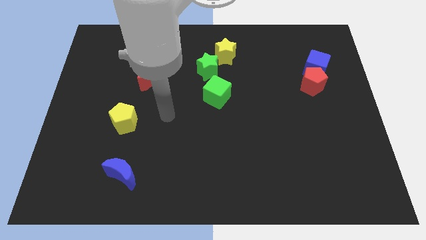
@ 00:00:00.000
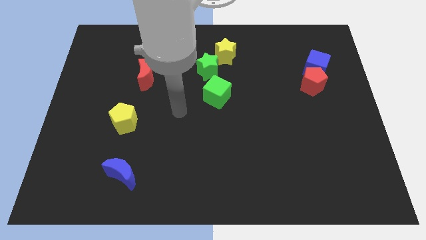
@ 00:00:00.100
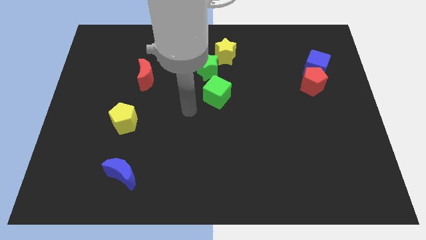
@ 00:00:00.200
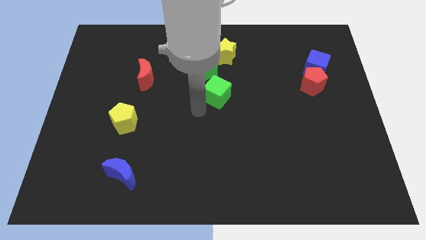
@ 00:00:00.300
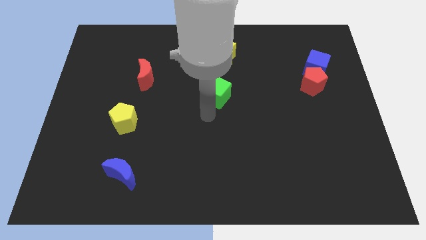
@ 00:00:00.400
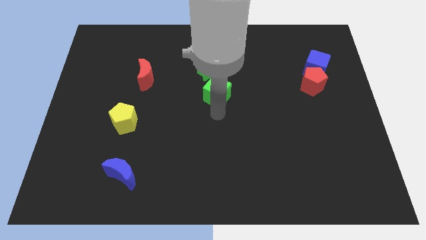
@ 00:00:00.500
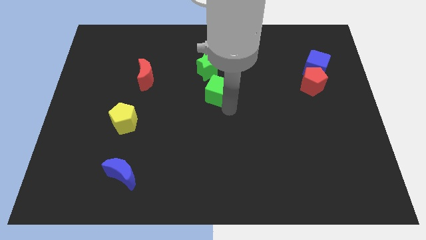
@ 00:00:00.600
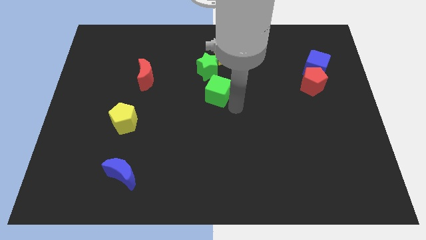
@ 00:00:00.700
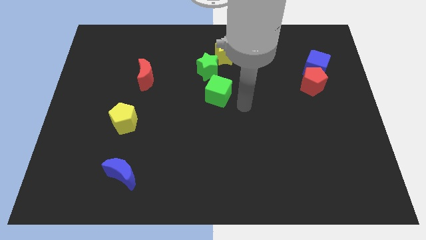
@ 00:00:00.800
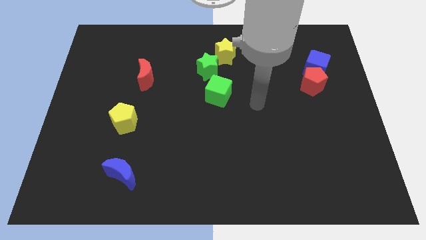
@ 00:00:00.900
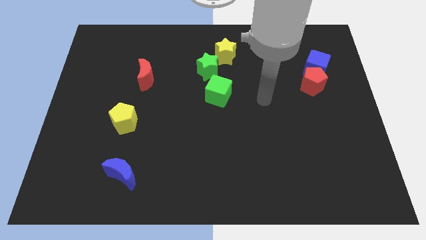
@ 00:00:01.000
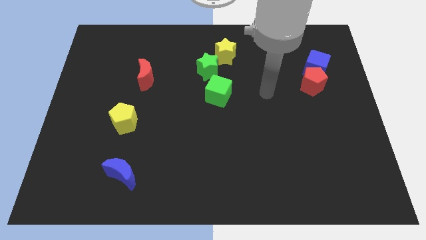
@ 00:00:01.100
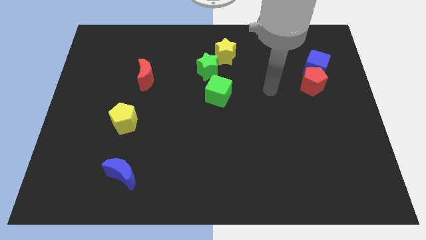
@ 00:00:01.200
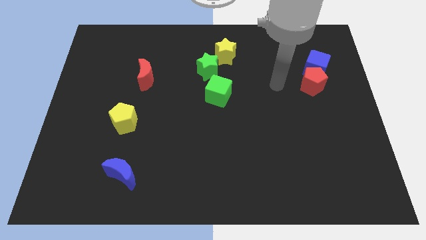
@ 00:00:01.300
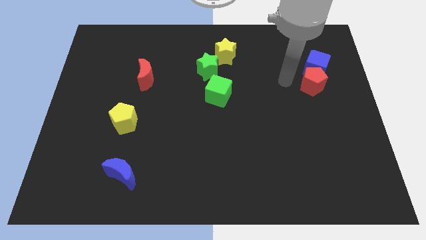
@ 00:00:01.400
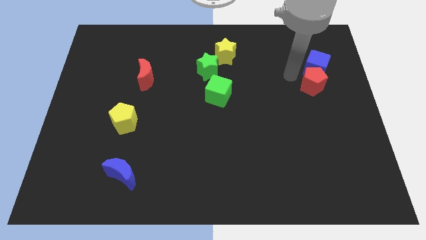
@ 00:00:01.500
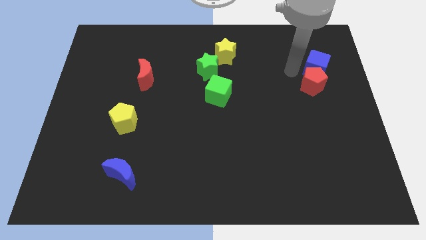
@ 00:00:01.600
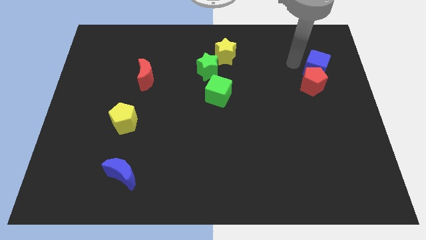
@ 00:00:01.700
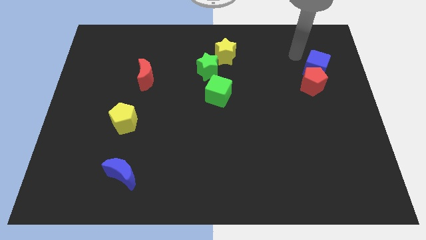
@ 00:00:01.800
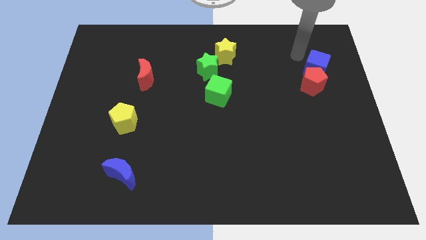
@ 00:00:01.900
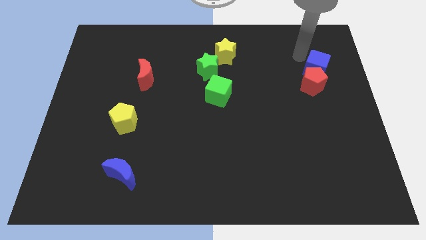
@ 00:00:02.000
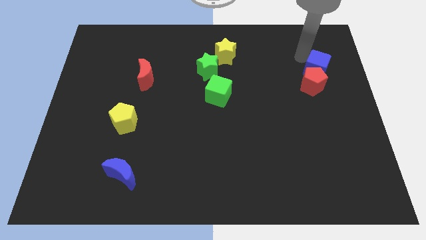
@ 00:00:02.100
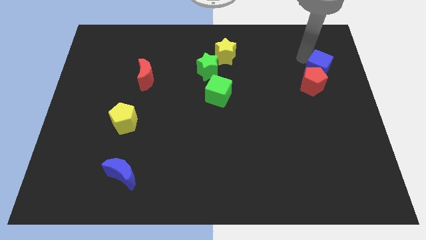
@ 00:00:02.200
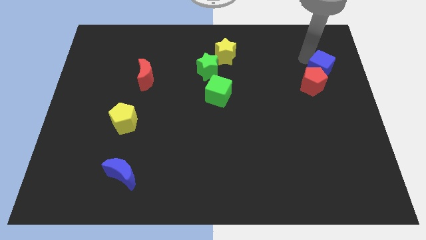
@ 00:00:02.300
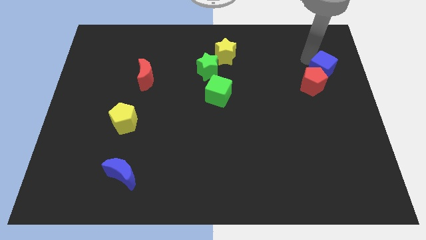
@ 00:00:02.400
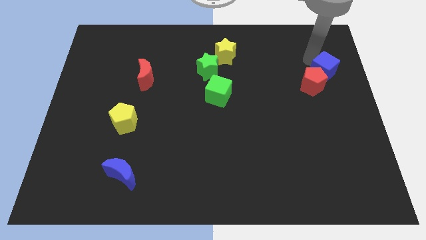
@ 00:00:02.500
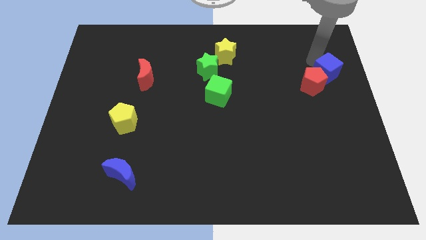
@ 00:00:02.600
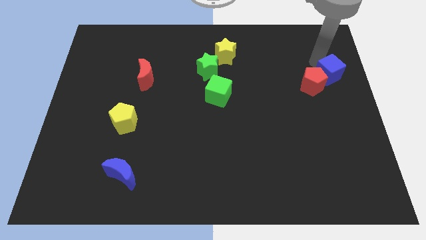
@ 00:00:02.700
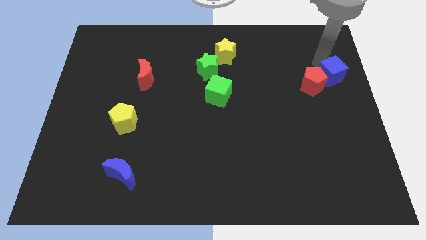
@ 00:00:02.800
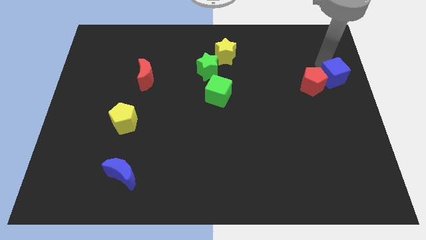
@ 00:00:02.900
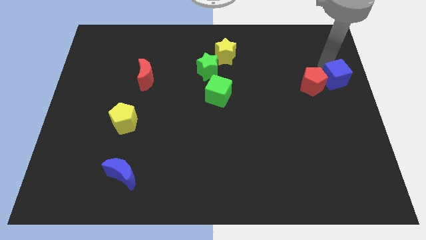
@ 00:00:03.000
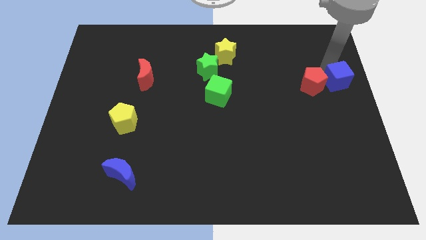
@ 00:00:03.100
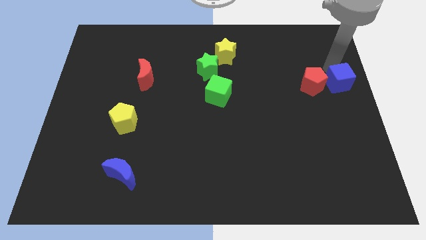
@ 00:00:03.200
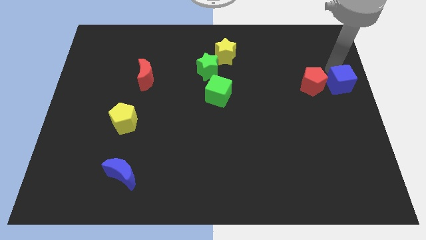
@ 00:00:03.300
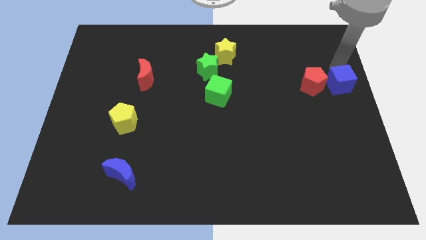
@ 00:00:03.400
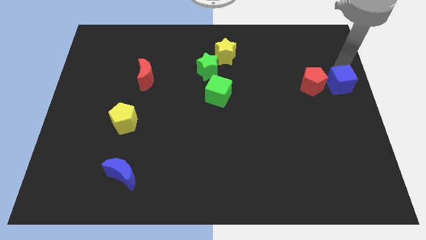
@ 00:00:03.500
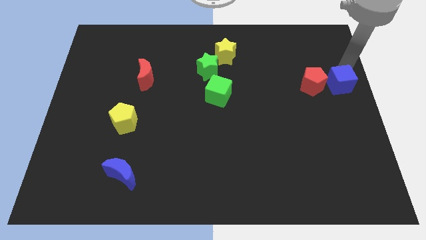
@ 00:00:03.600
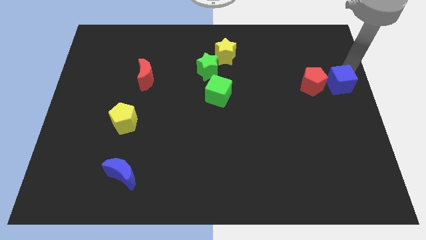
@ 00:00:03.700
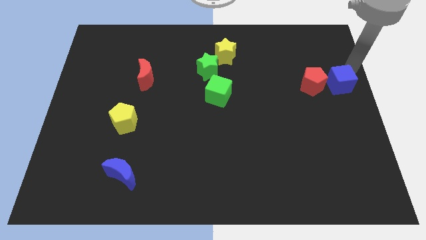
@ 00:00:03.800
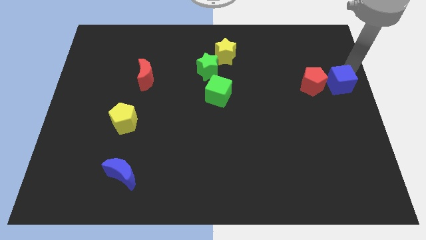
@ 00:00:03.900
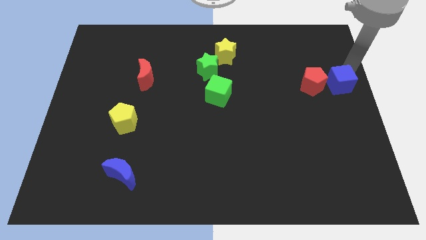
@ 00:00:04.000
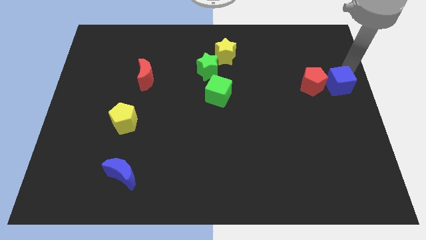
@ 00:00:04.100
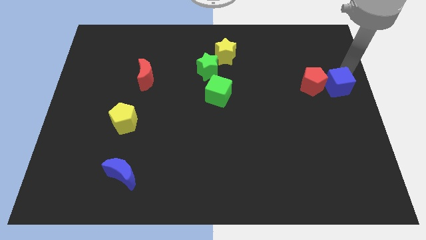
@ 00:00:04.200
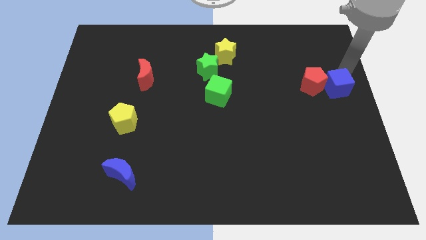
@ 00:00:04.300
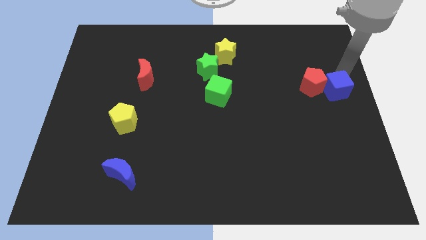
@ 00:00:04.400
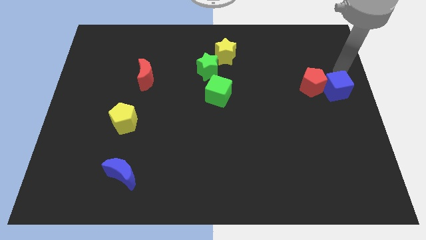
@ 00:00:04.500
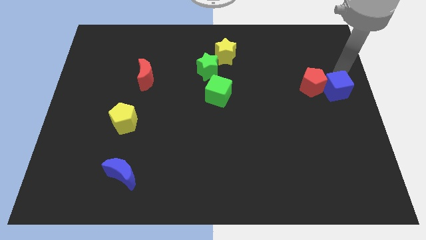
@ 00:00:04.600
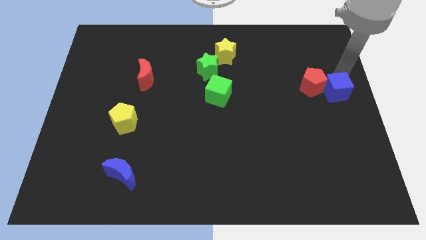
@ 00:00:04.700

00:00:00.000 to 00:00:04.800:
push the blue cube a bit downwards

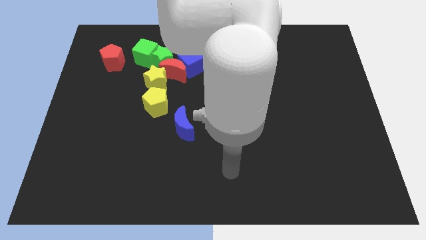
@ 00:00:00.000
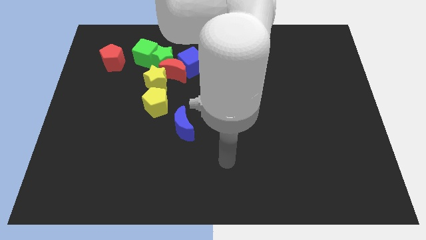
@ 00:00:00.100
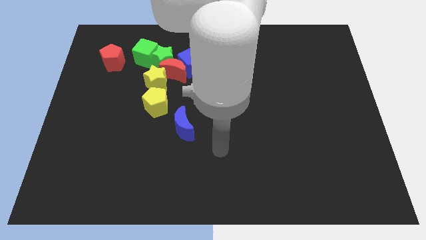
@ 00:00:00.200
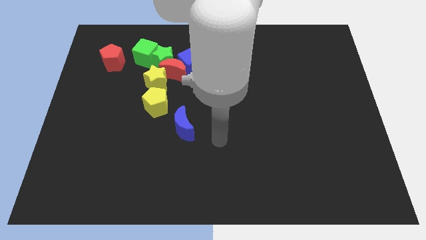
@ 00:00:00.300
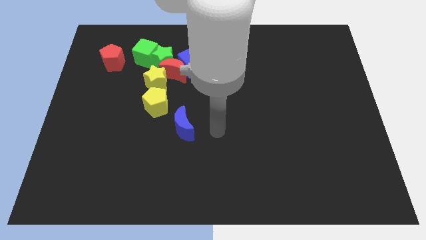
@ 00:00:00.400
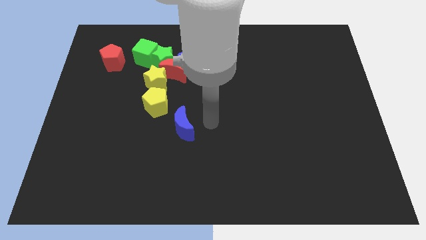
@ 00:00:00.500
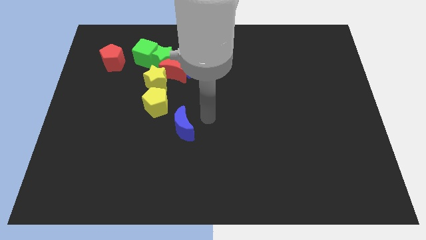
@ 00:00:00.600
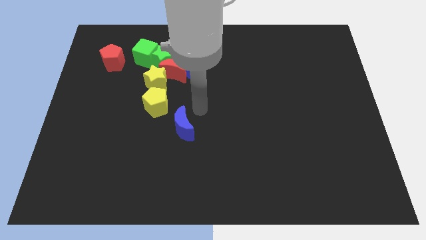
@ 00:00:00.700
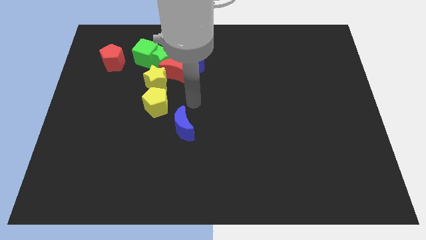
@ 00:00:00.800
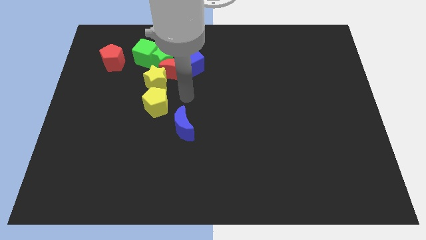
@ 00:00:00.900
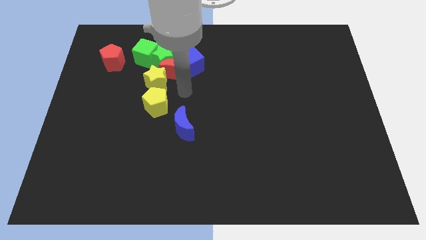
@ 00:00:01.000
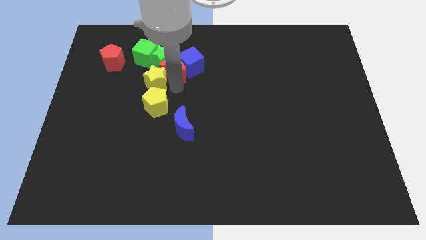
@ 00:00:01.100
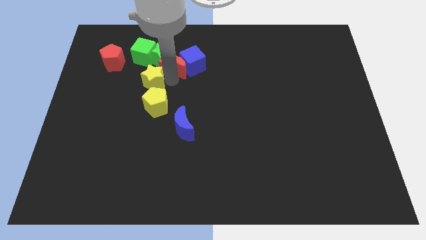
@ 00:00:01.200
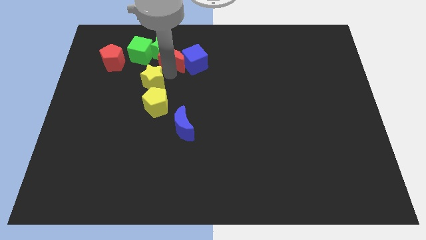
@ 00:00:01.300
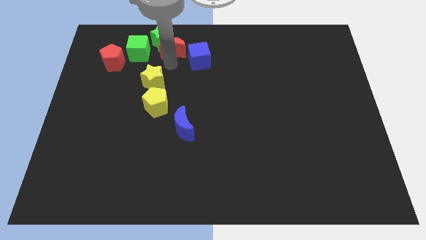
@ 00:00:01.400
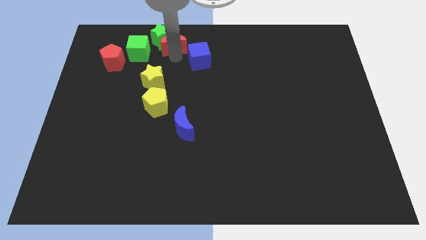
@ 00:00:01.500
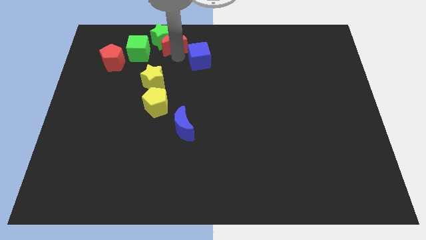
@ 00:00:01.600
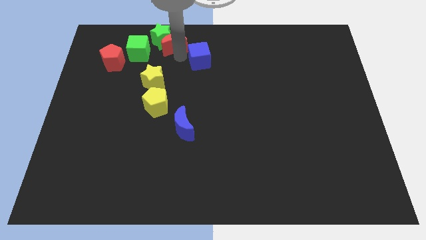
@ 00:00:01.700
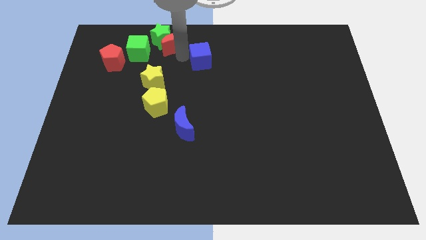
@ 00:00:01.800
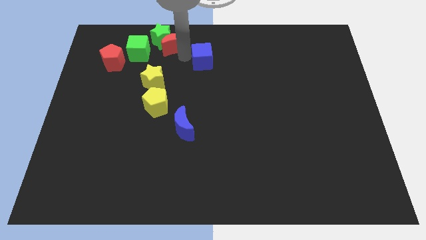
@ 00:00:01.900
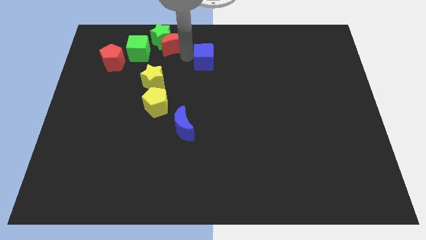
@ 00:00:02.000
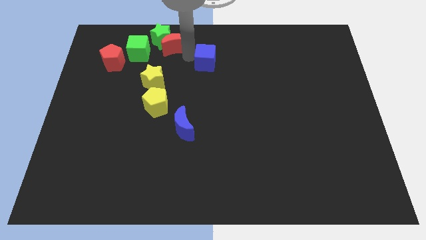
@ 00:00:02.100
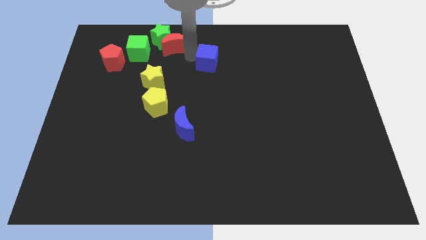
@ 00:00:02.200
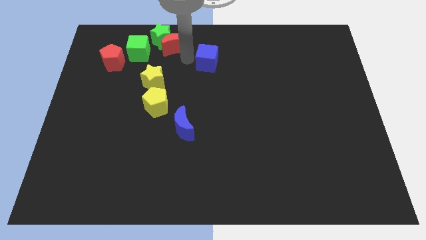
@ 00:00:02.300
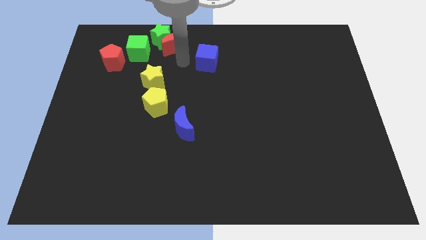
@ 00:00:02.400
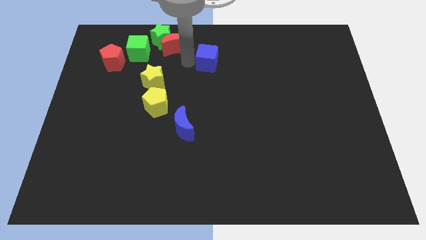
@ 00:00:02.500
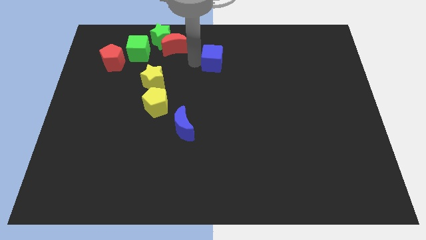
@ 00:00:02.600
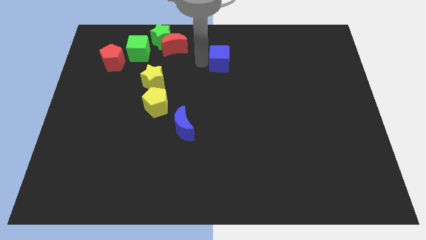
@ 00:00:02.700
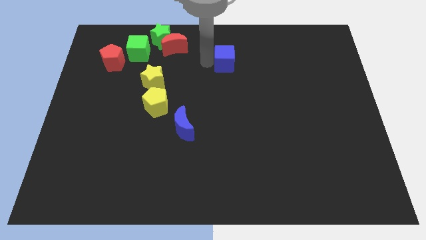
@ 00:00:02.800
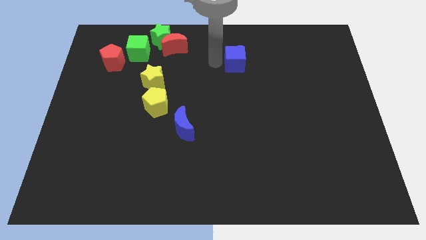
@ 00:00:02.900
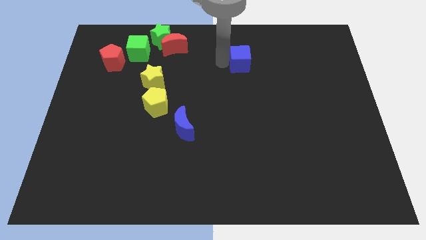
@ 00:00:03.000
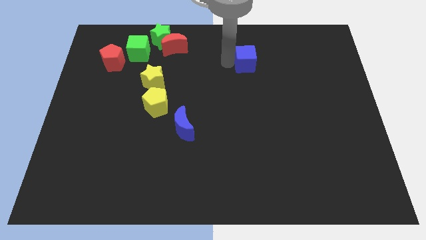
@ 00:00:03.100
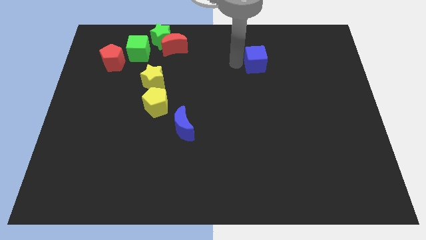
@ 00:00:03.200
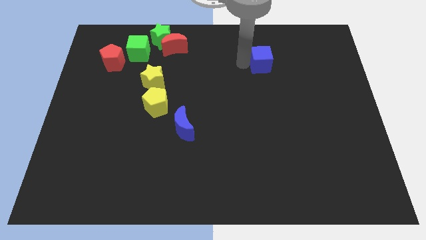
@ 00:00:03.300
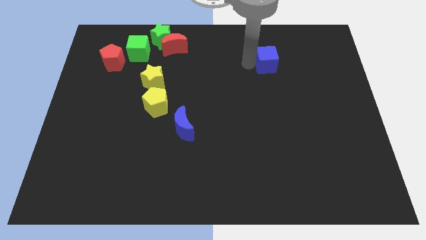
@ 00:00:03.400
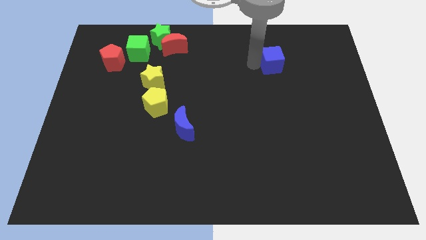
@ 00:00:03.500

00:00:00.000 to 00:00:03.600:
slide the blue cube right
